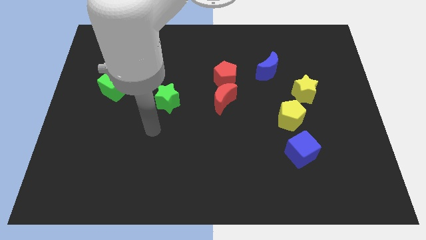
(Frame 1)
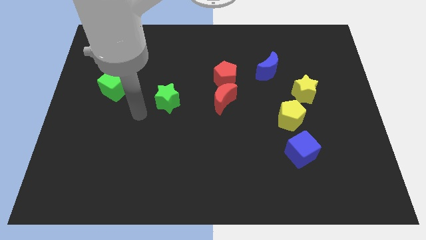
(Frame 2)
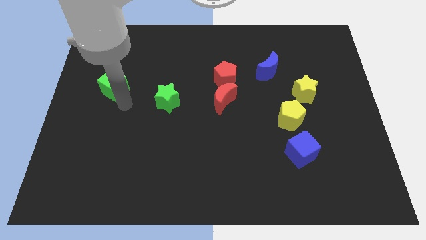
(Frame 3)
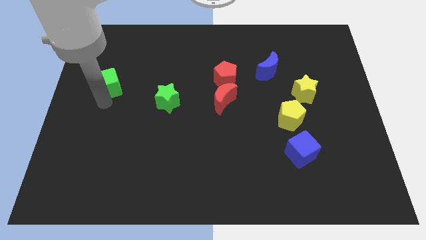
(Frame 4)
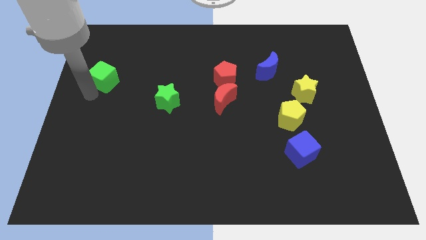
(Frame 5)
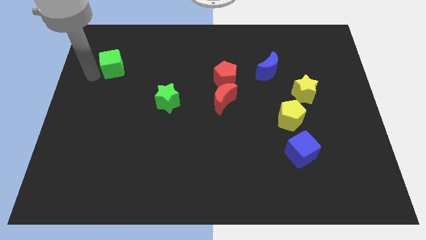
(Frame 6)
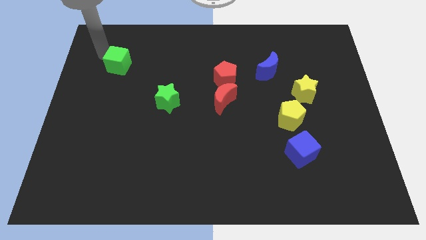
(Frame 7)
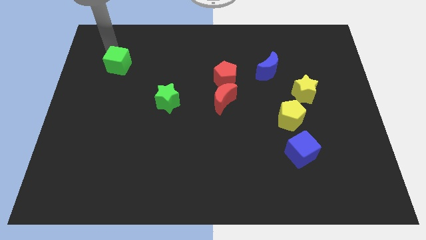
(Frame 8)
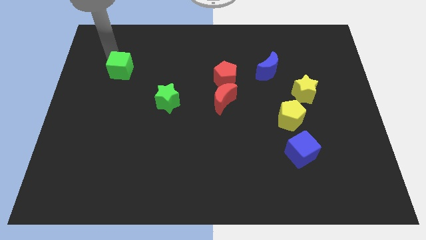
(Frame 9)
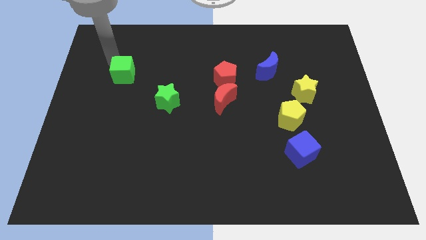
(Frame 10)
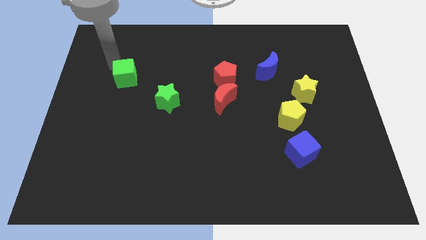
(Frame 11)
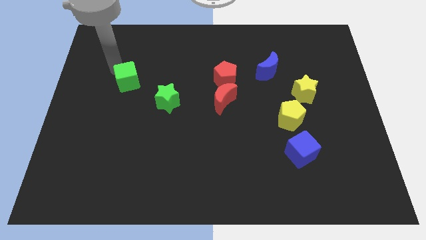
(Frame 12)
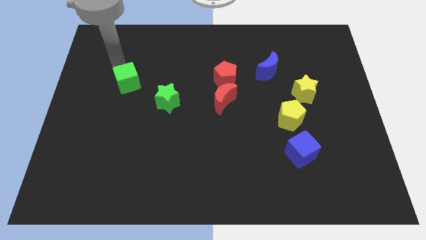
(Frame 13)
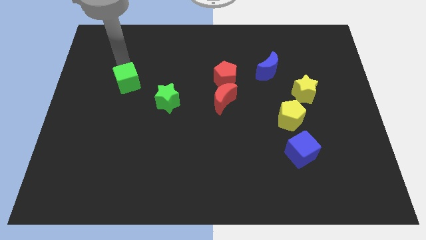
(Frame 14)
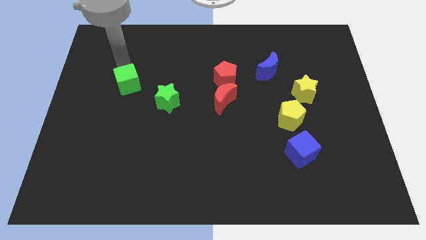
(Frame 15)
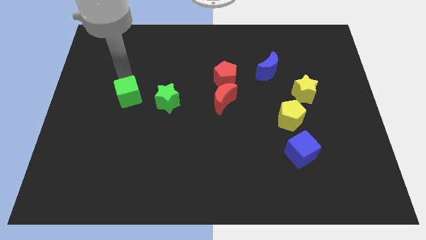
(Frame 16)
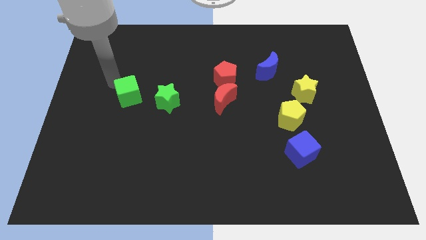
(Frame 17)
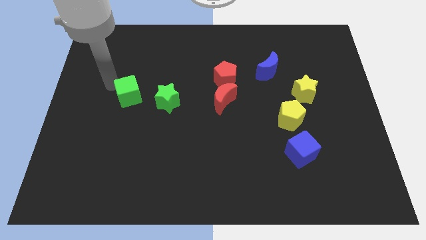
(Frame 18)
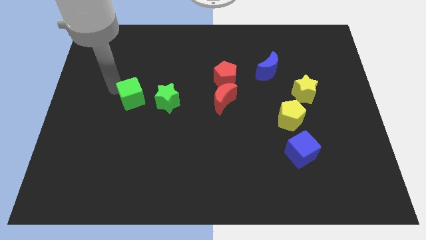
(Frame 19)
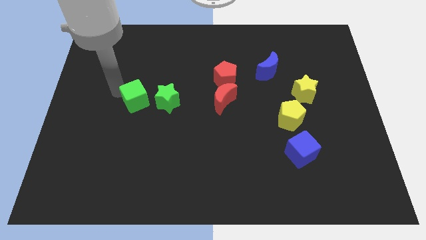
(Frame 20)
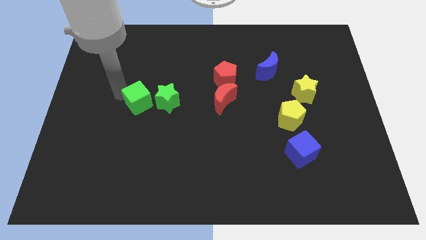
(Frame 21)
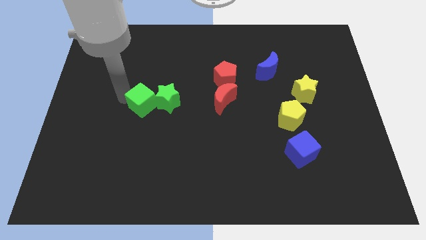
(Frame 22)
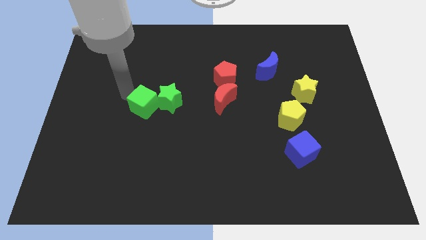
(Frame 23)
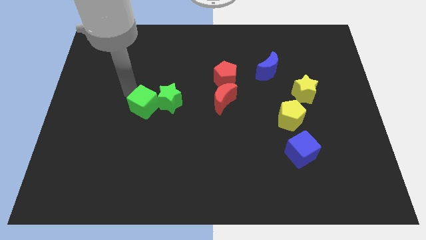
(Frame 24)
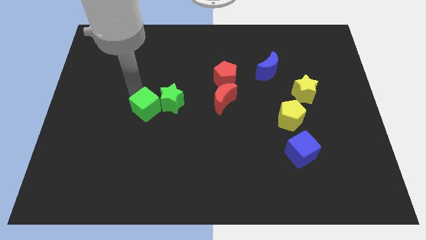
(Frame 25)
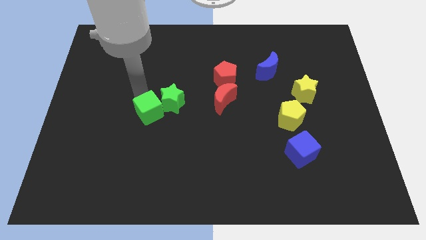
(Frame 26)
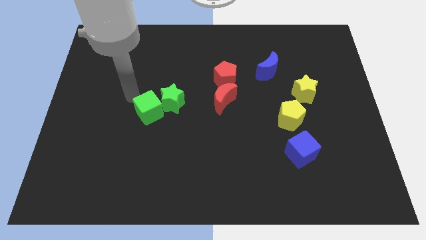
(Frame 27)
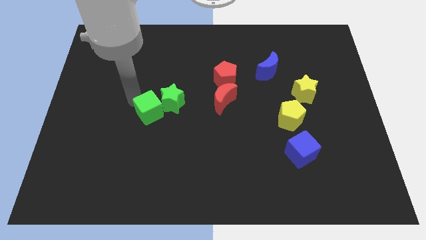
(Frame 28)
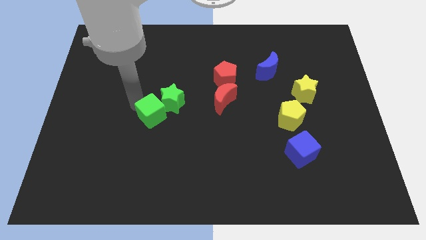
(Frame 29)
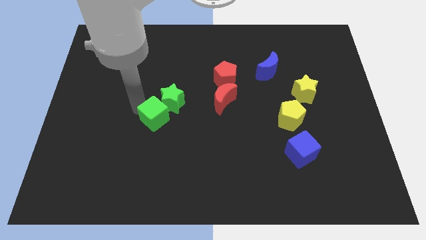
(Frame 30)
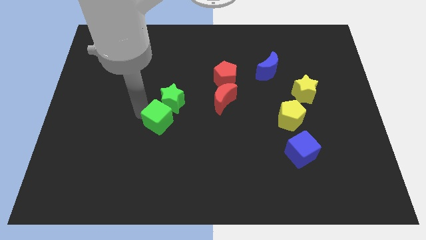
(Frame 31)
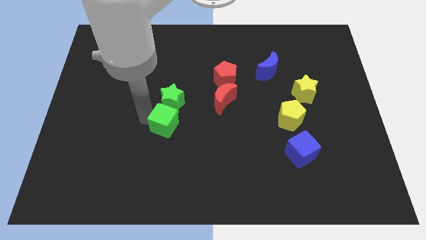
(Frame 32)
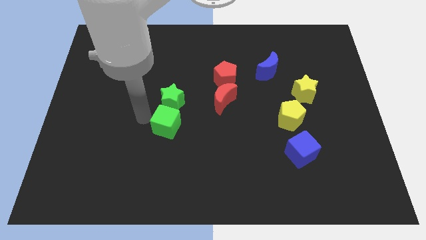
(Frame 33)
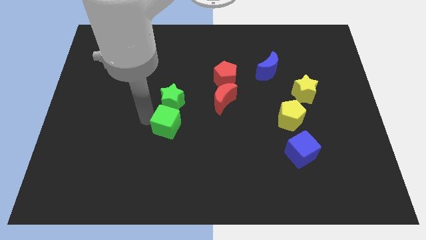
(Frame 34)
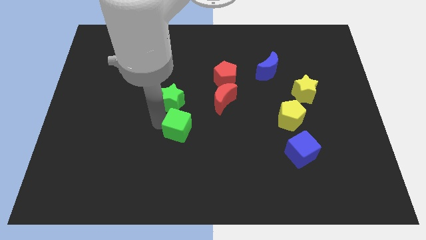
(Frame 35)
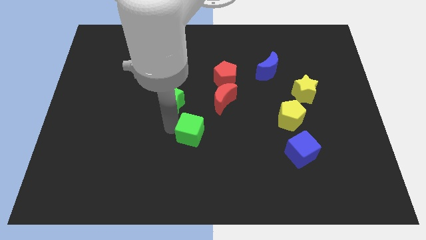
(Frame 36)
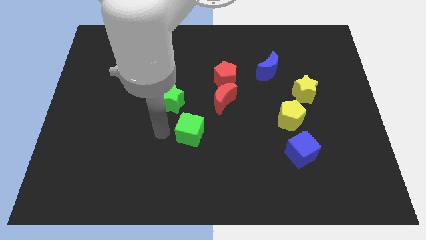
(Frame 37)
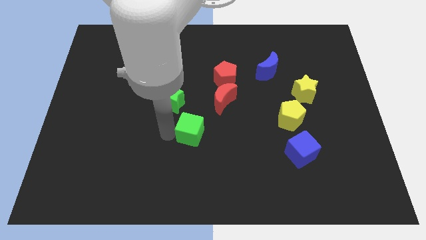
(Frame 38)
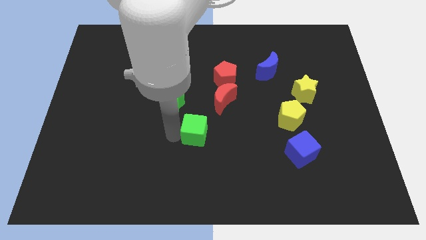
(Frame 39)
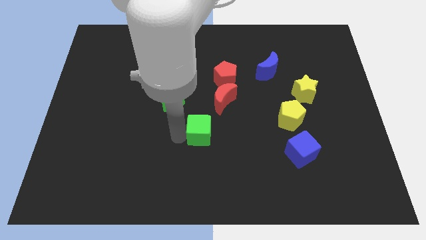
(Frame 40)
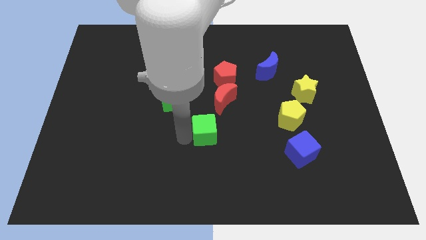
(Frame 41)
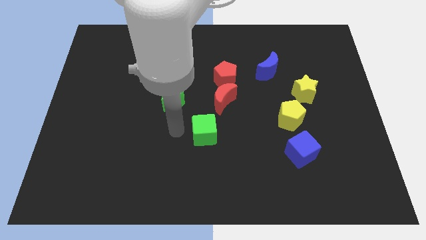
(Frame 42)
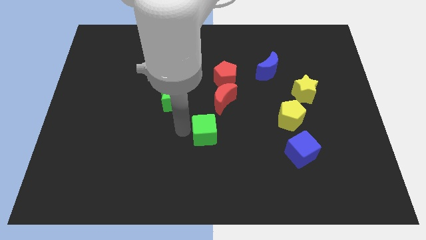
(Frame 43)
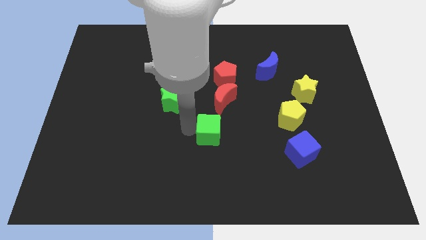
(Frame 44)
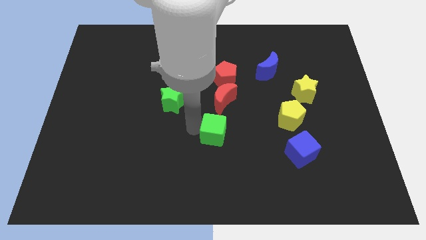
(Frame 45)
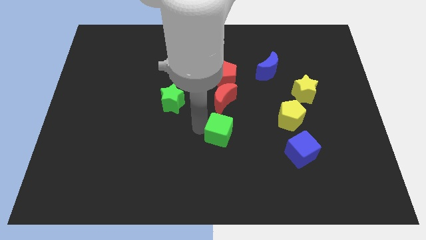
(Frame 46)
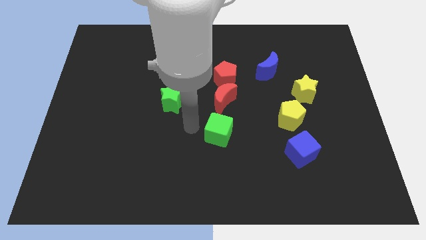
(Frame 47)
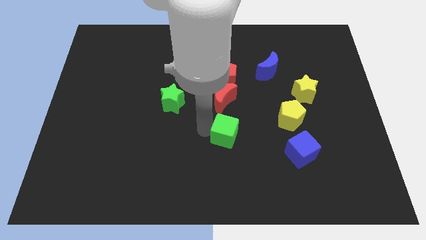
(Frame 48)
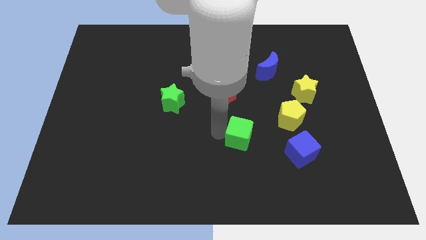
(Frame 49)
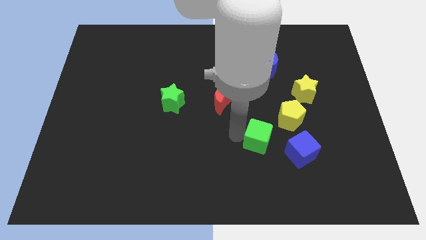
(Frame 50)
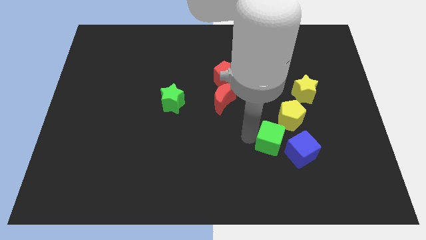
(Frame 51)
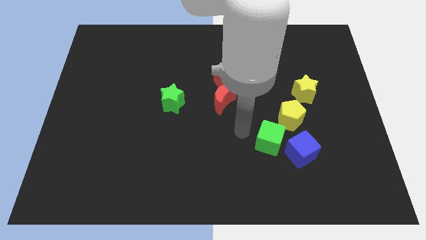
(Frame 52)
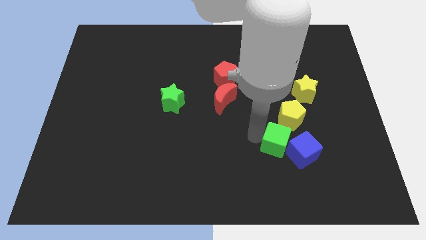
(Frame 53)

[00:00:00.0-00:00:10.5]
push the green cube close to the blue cube

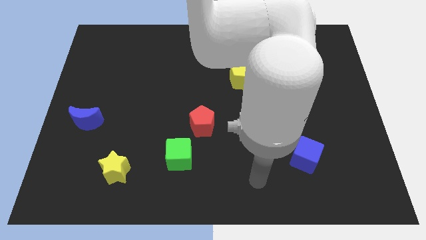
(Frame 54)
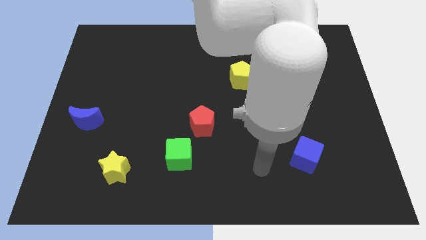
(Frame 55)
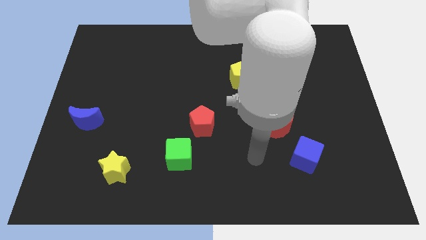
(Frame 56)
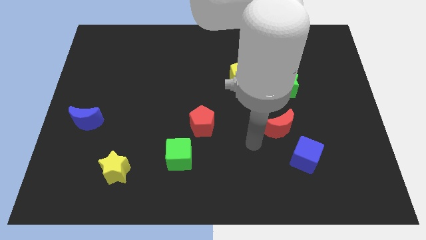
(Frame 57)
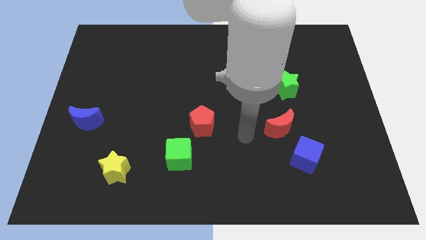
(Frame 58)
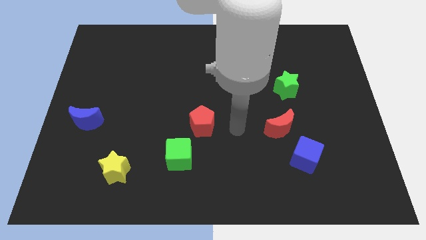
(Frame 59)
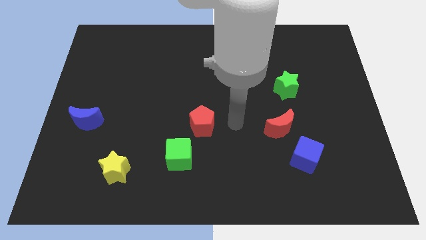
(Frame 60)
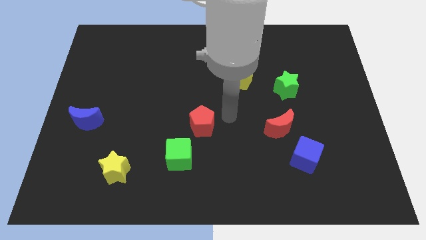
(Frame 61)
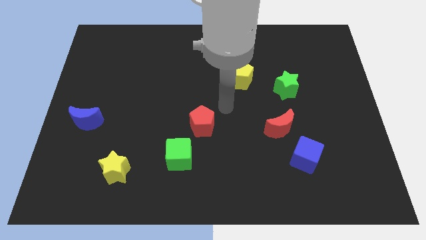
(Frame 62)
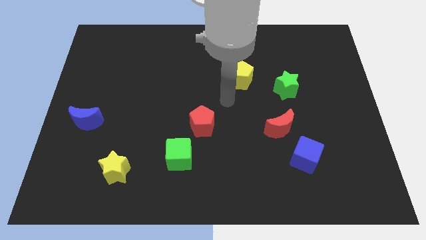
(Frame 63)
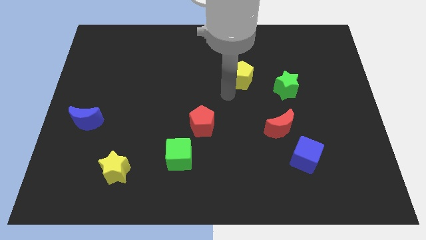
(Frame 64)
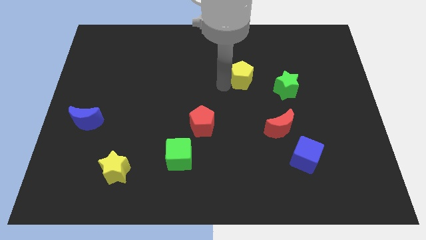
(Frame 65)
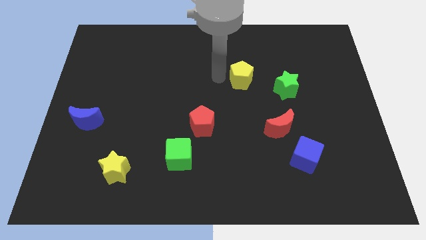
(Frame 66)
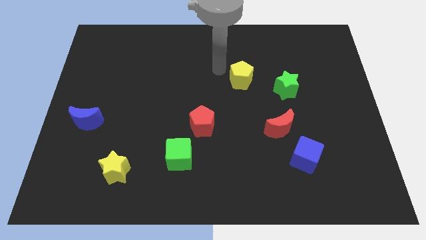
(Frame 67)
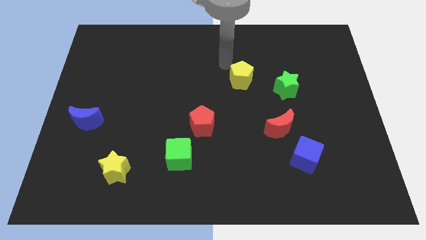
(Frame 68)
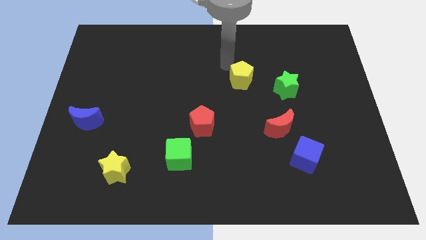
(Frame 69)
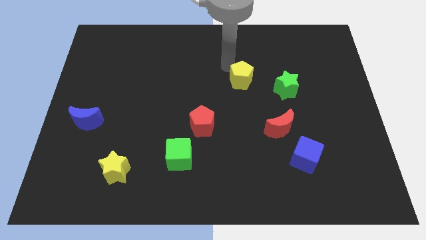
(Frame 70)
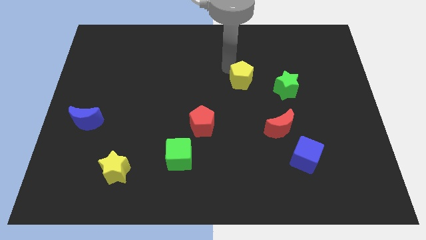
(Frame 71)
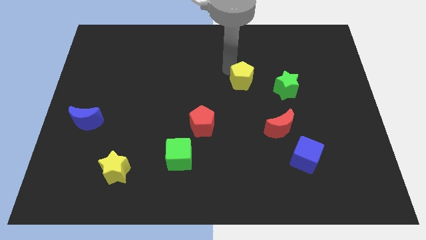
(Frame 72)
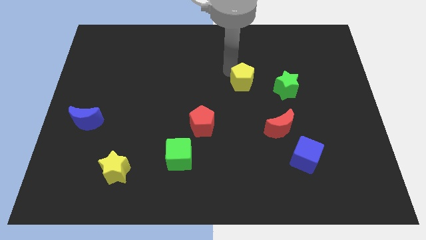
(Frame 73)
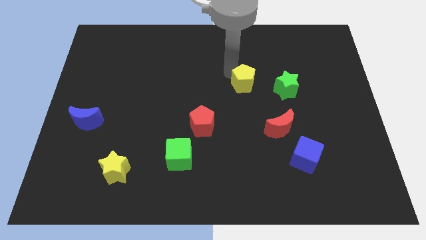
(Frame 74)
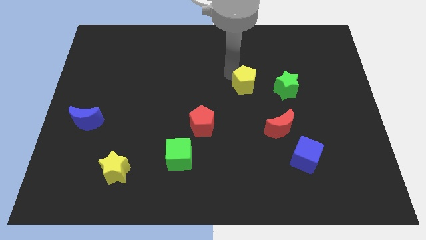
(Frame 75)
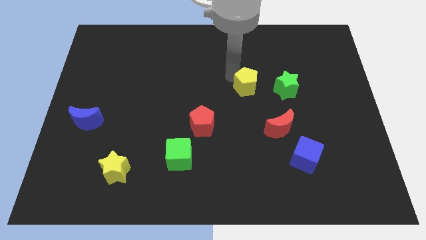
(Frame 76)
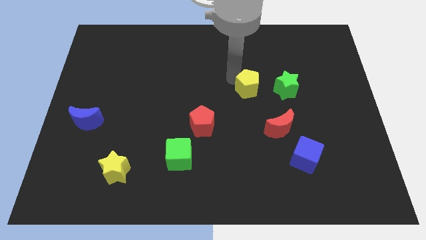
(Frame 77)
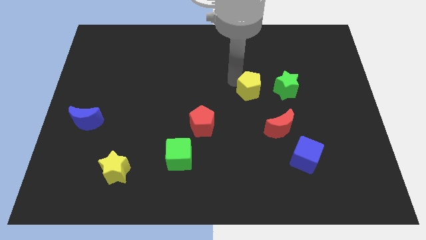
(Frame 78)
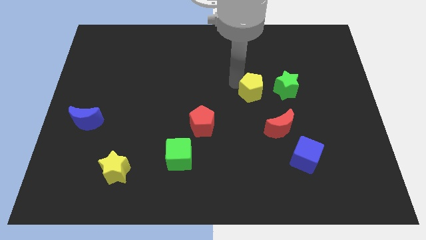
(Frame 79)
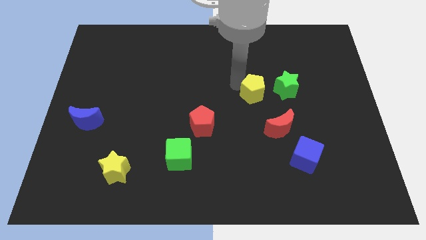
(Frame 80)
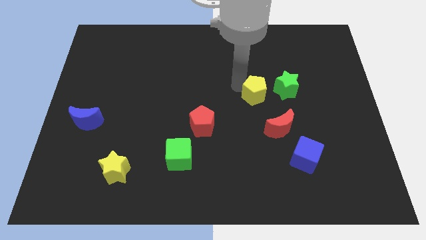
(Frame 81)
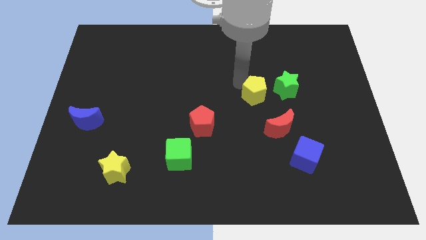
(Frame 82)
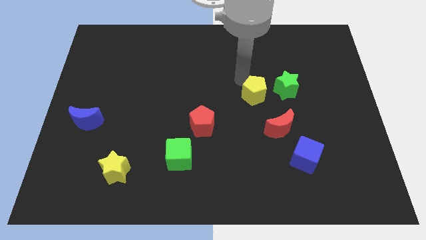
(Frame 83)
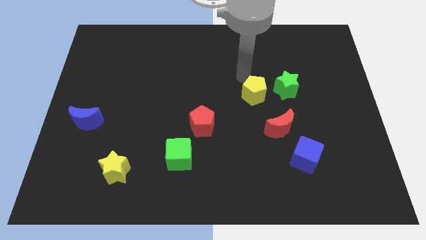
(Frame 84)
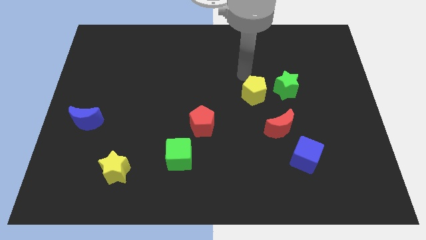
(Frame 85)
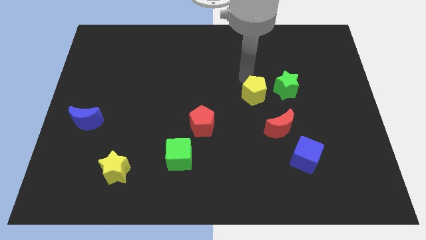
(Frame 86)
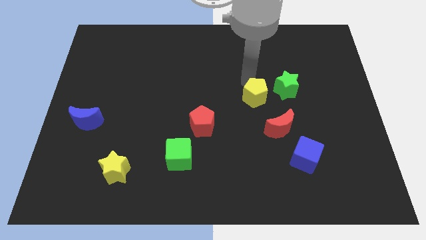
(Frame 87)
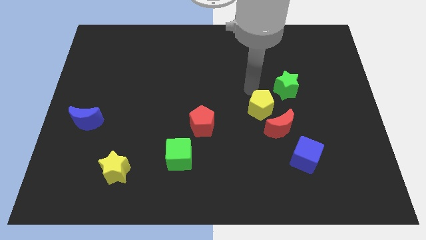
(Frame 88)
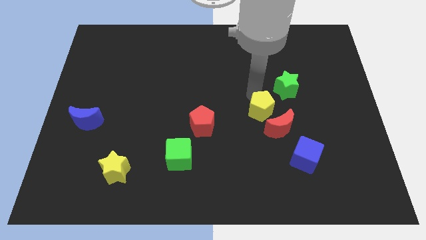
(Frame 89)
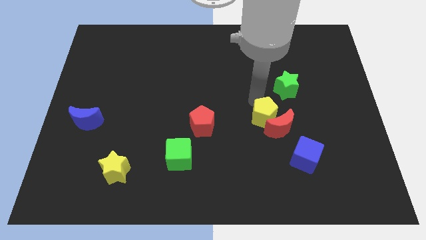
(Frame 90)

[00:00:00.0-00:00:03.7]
put the yellow pentagon close to the red moon
